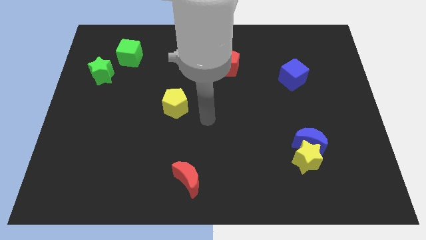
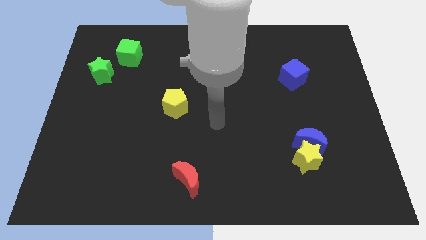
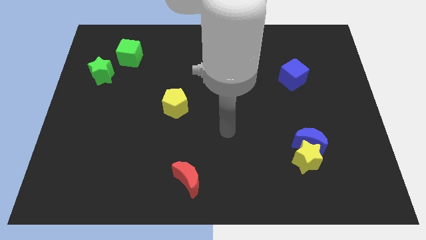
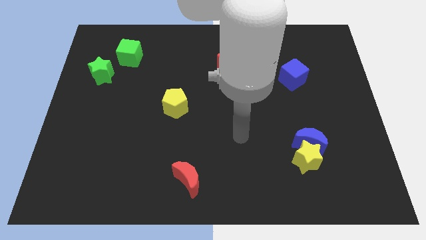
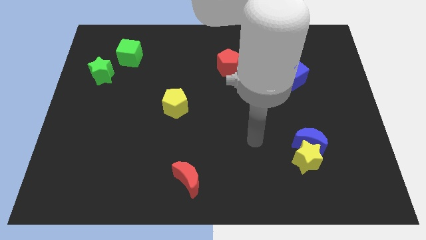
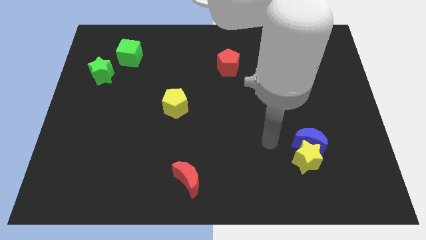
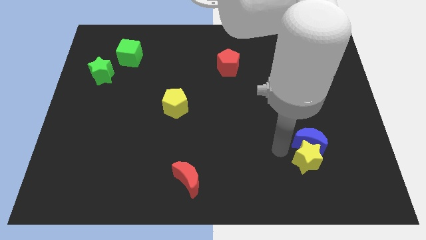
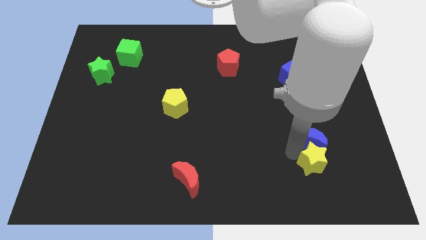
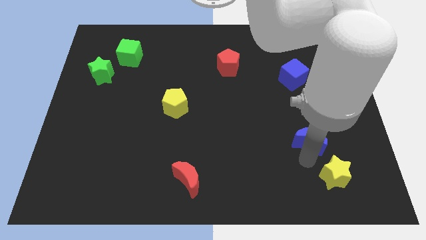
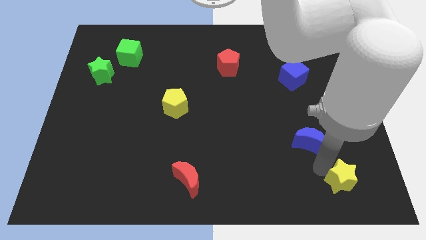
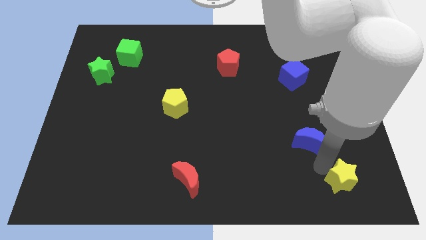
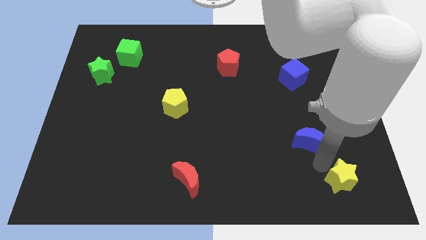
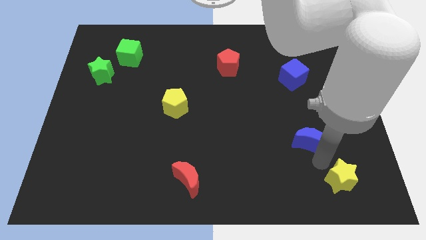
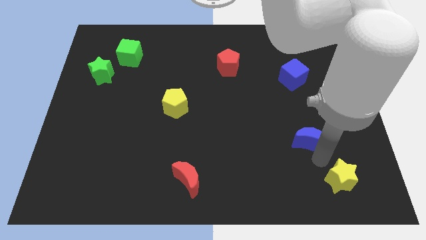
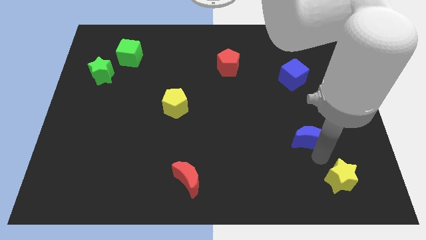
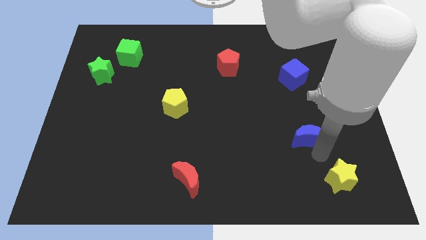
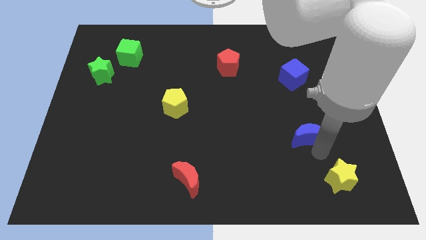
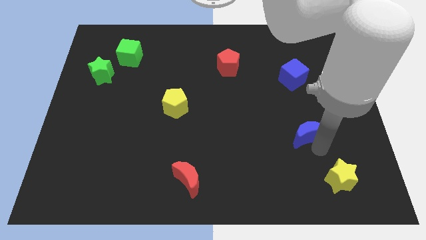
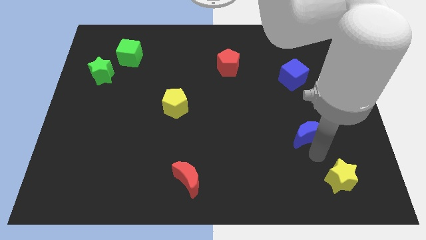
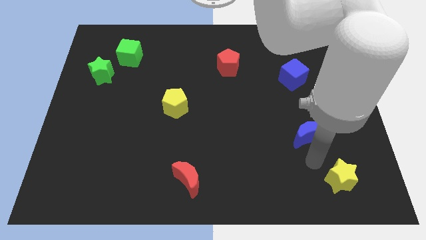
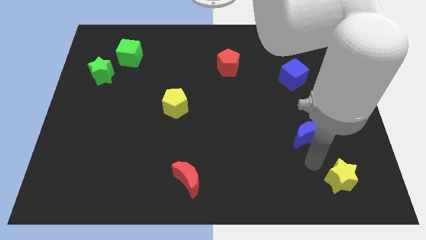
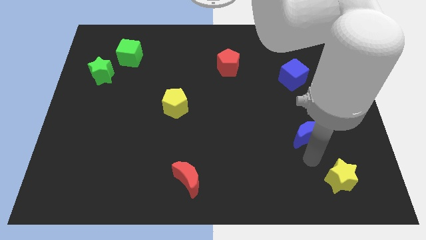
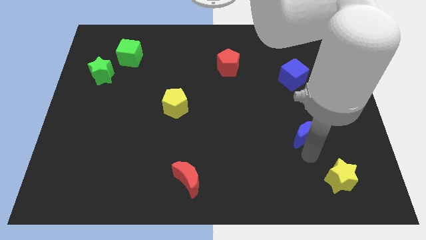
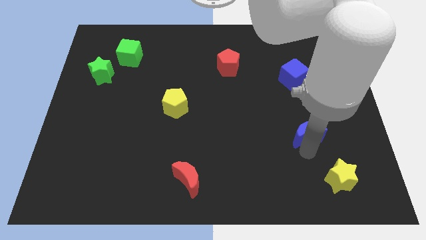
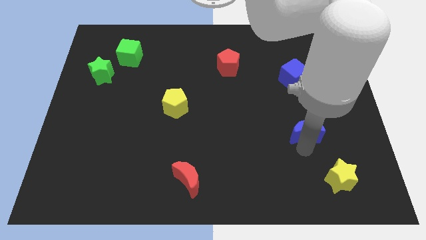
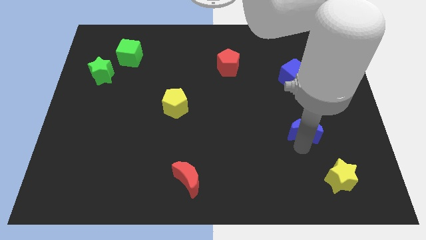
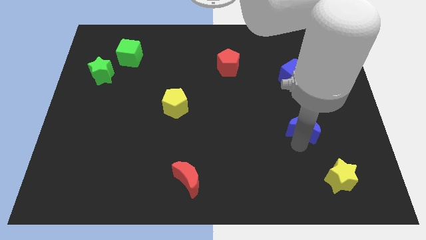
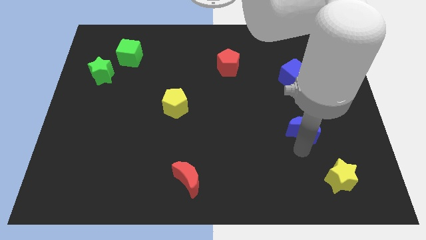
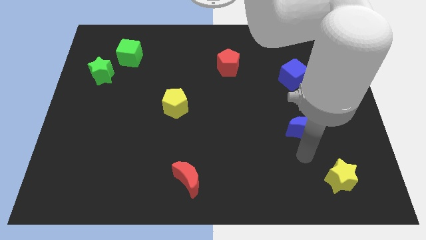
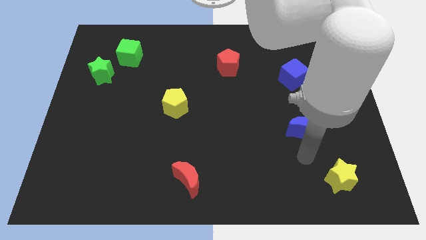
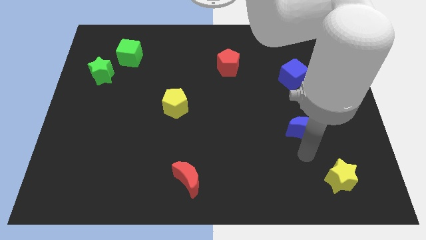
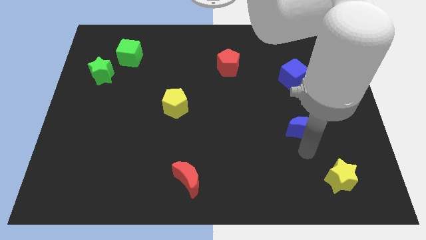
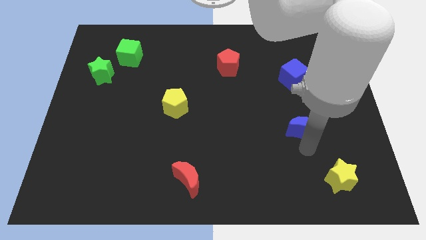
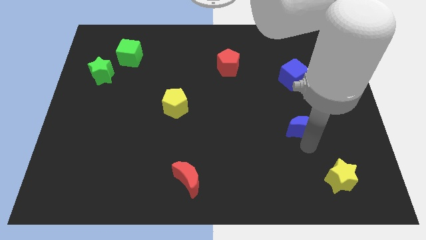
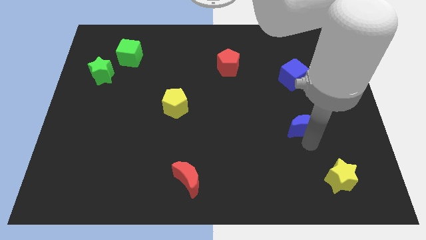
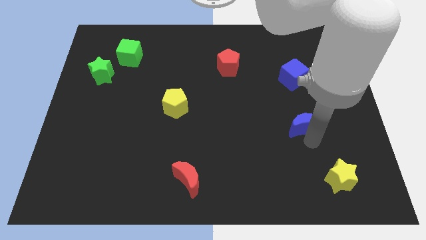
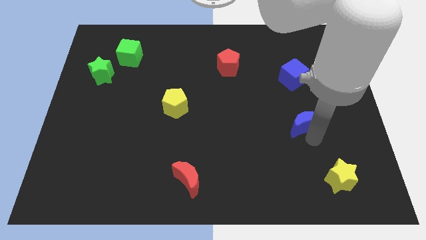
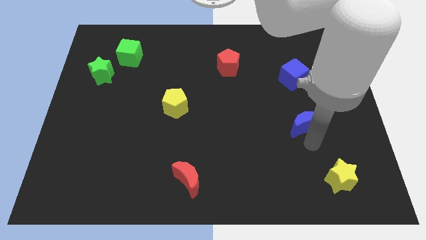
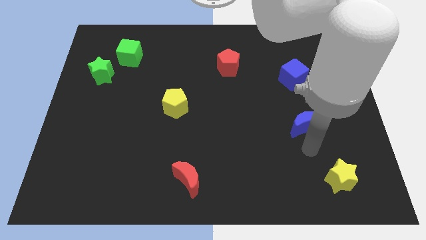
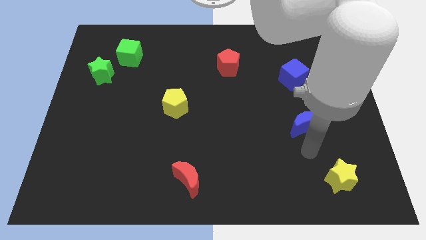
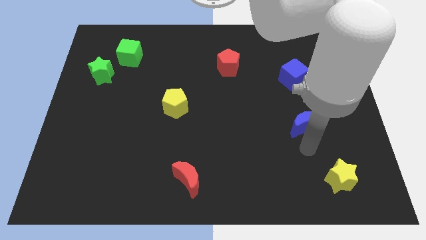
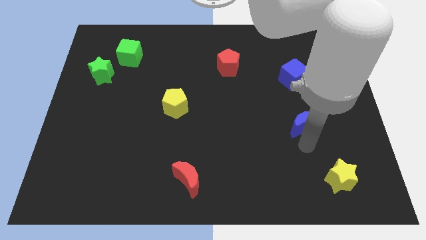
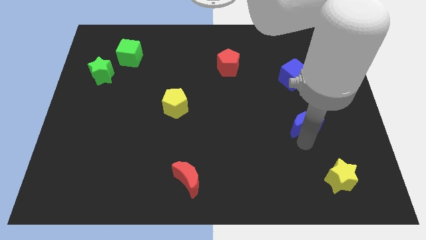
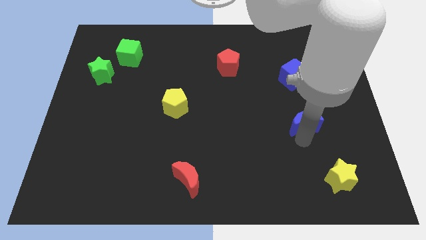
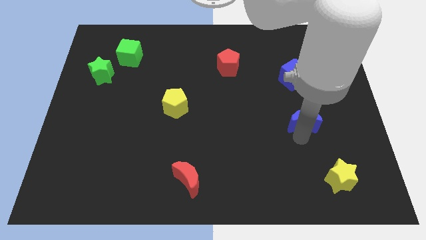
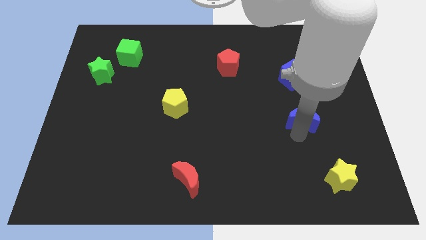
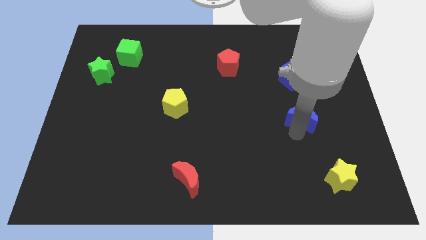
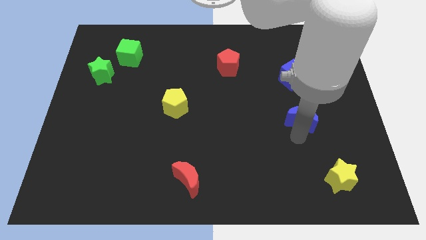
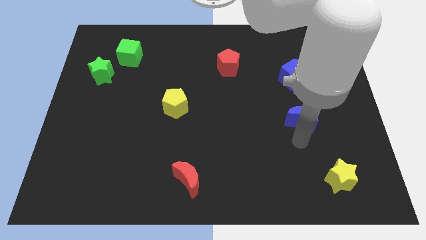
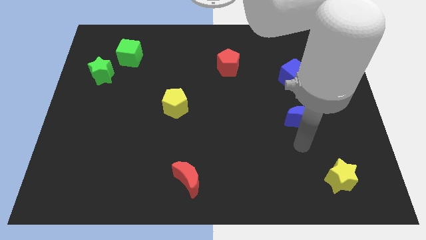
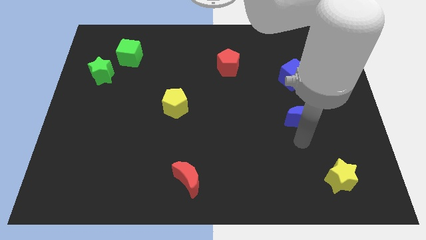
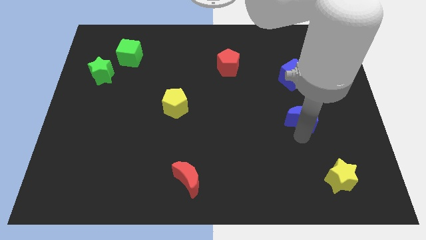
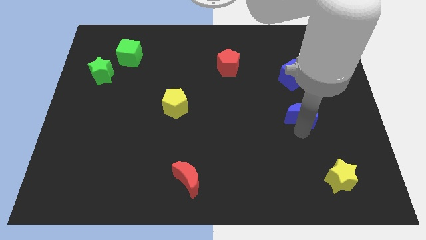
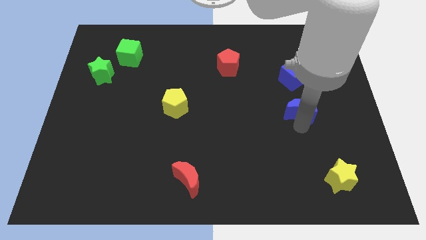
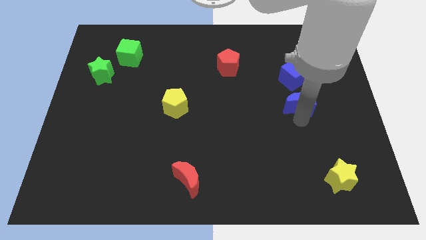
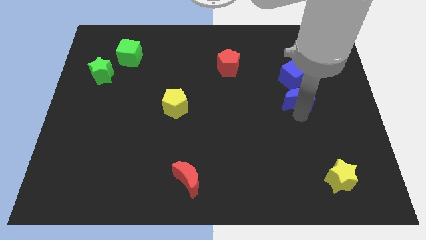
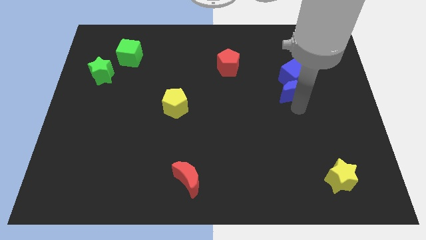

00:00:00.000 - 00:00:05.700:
move the blue moon close to the blue cube
